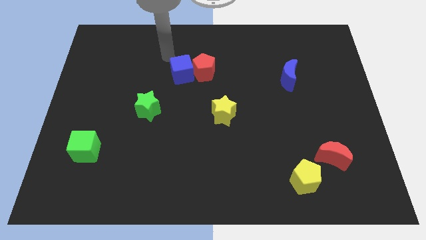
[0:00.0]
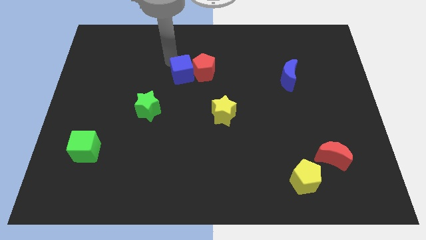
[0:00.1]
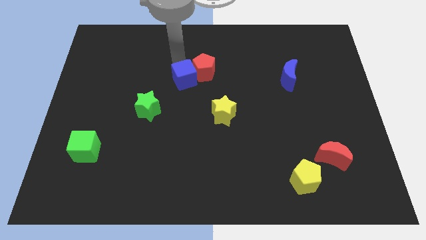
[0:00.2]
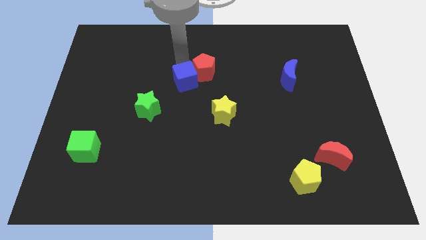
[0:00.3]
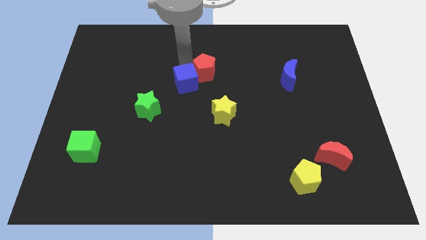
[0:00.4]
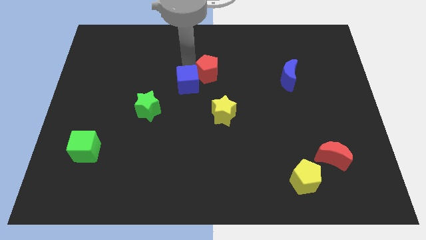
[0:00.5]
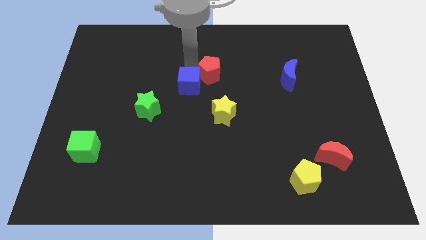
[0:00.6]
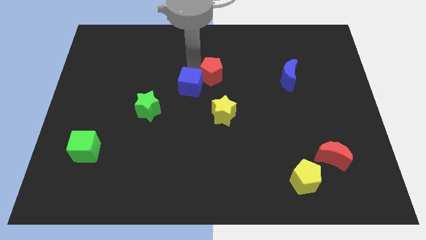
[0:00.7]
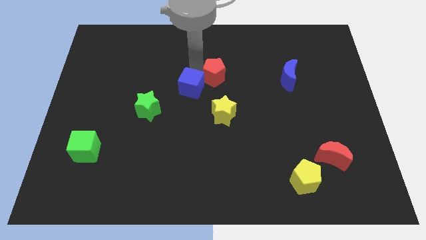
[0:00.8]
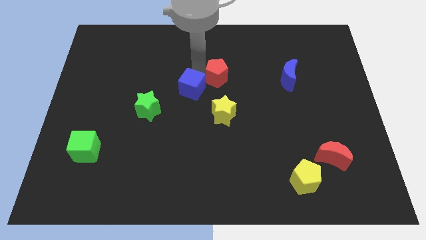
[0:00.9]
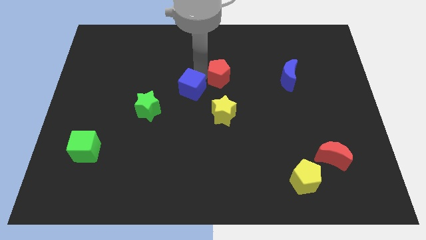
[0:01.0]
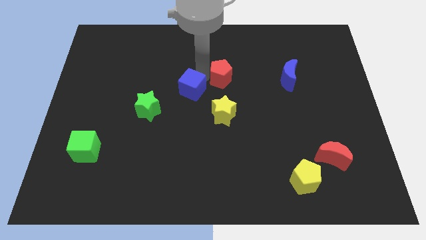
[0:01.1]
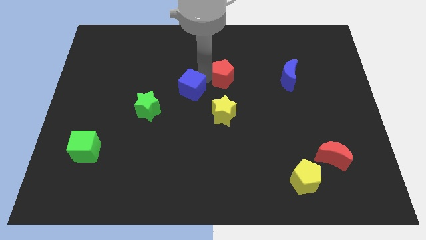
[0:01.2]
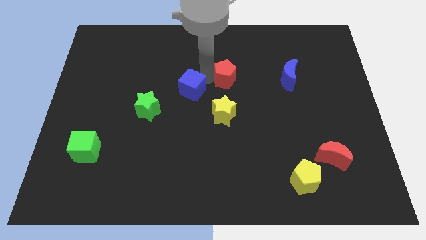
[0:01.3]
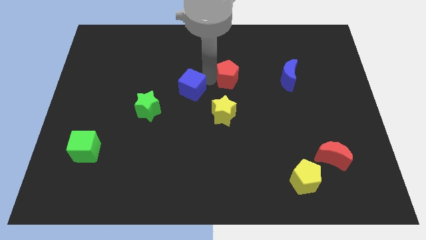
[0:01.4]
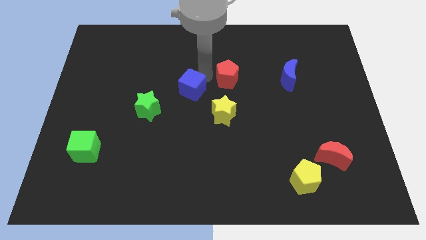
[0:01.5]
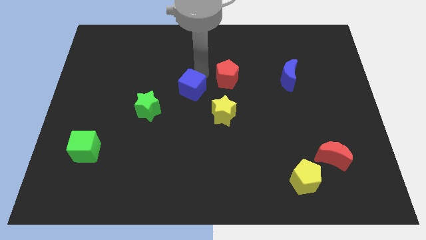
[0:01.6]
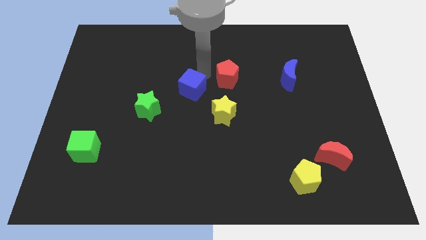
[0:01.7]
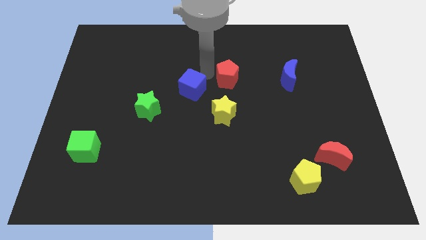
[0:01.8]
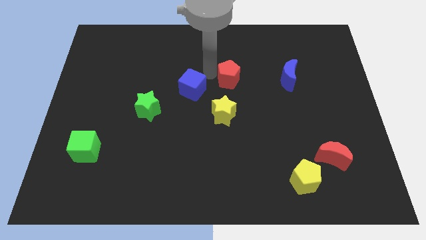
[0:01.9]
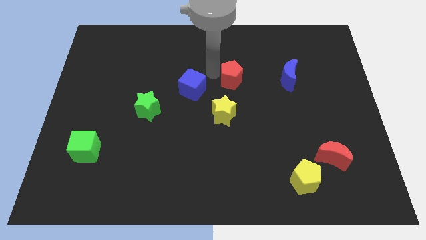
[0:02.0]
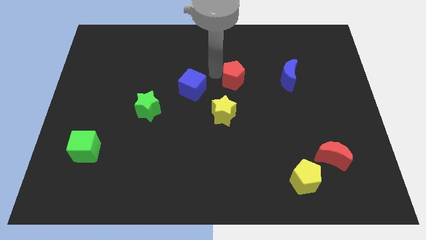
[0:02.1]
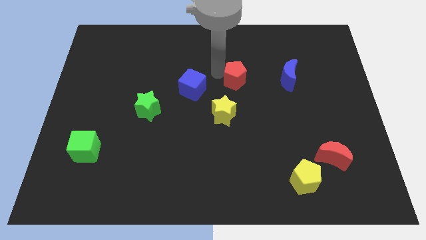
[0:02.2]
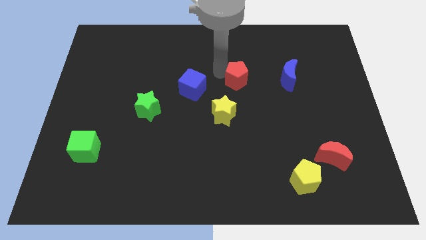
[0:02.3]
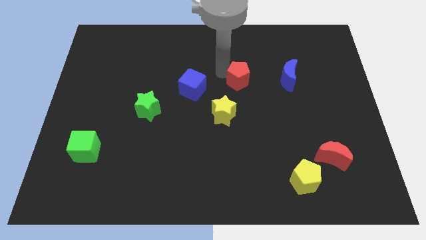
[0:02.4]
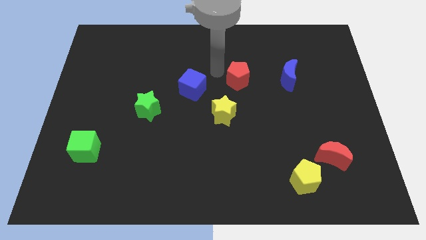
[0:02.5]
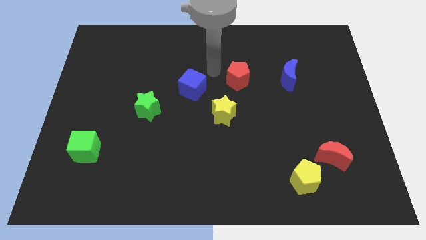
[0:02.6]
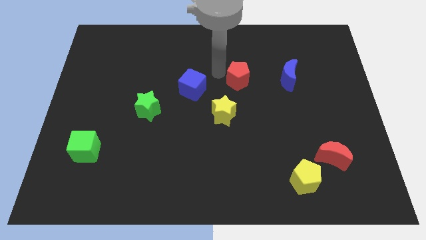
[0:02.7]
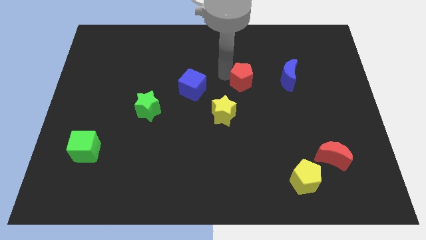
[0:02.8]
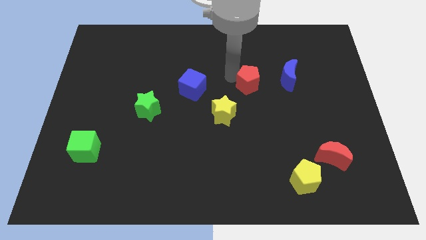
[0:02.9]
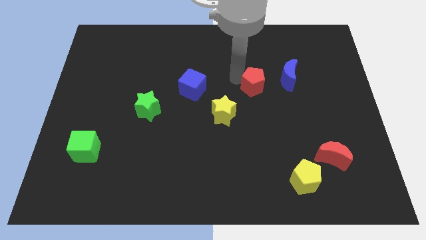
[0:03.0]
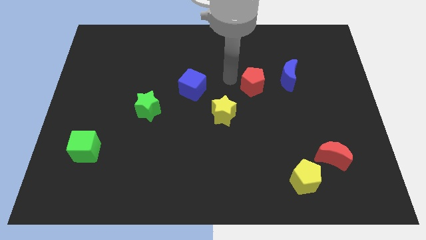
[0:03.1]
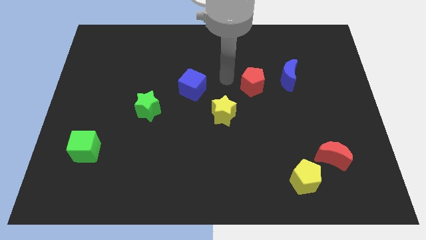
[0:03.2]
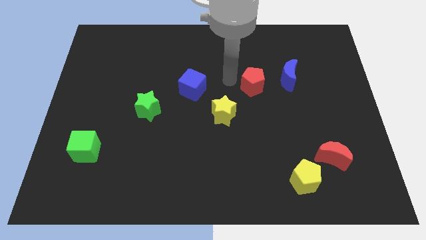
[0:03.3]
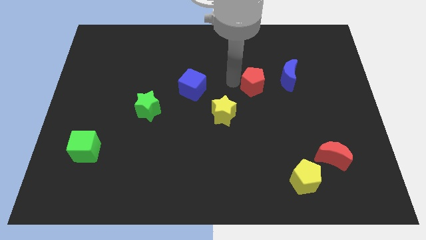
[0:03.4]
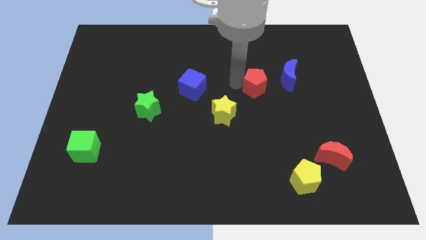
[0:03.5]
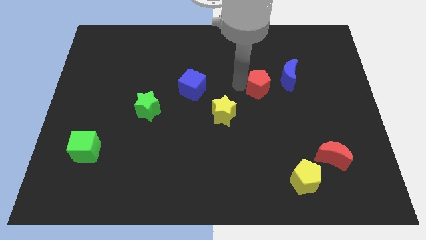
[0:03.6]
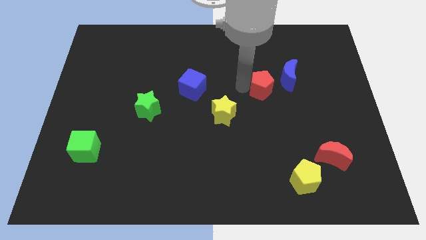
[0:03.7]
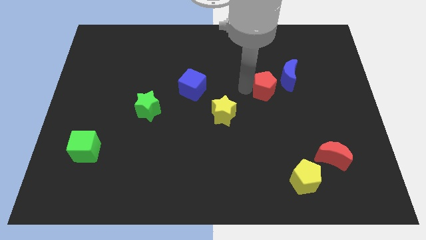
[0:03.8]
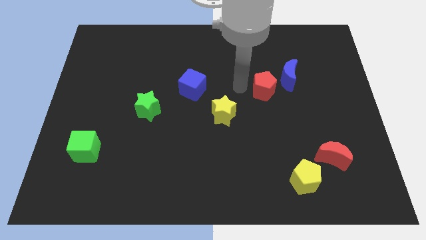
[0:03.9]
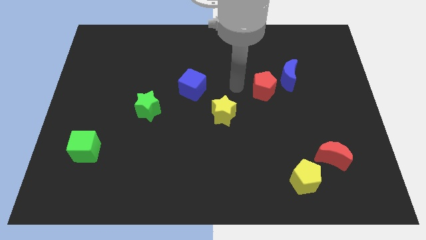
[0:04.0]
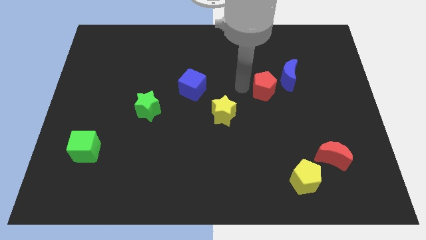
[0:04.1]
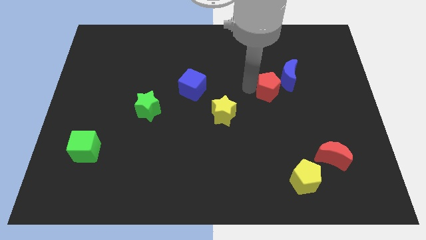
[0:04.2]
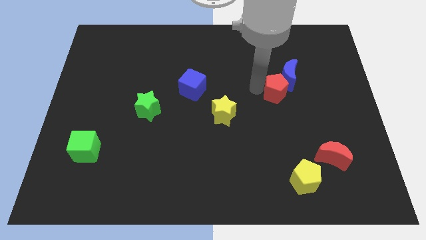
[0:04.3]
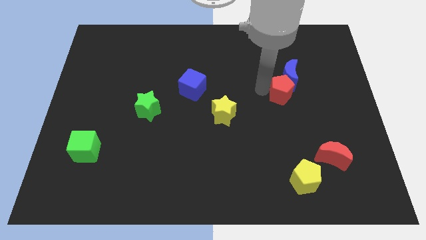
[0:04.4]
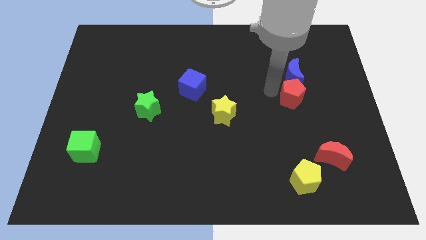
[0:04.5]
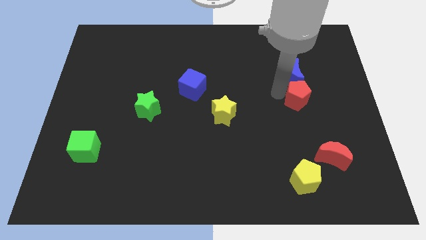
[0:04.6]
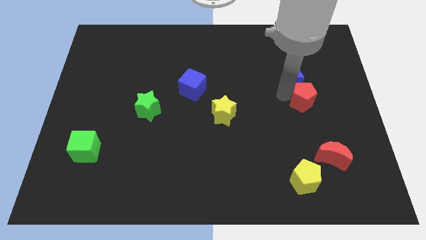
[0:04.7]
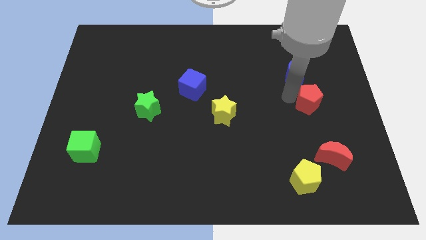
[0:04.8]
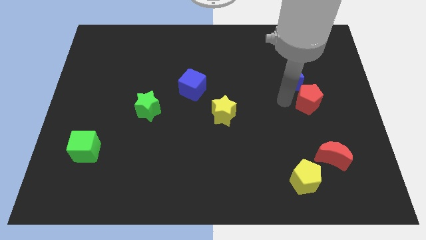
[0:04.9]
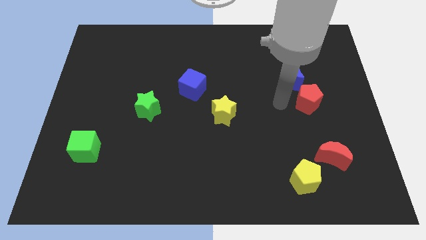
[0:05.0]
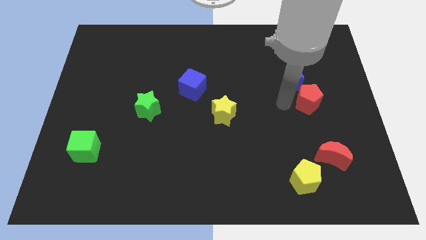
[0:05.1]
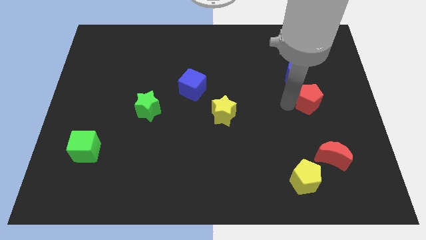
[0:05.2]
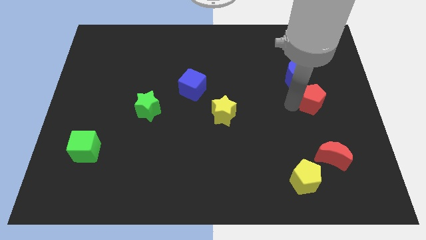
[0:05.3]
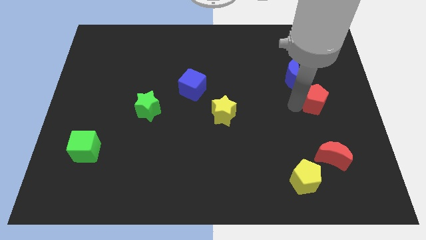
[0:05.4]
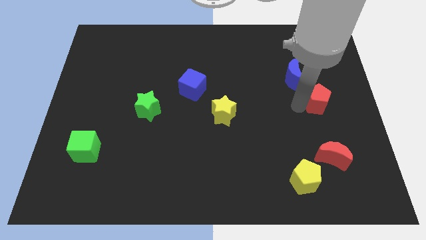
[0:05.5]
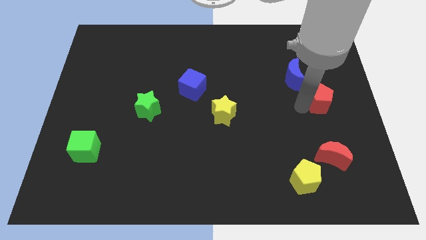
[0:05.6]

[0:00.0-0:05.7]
slide the red pentagon to the center right
